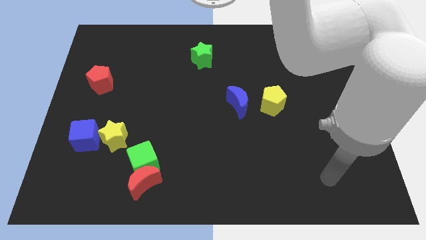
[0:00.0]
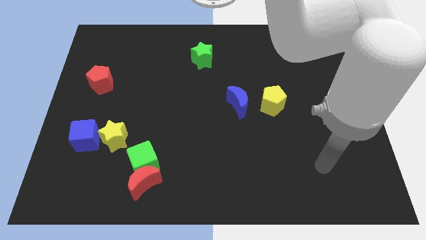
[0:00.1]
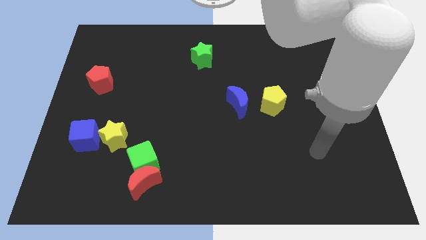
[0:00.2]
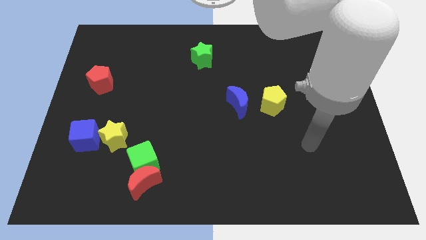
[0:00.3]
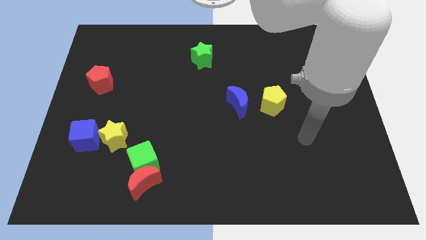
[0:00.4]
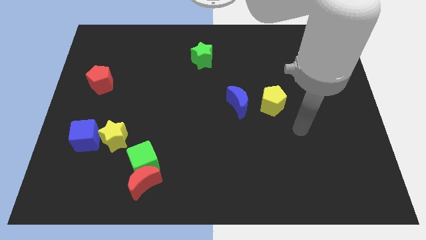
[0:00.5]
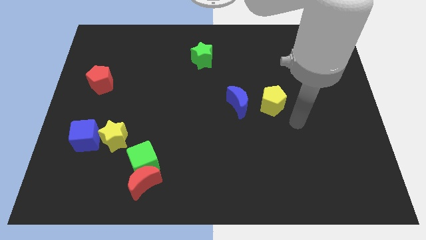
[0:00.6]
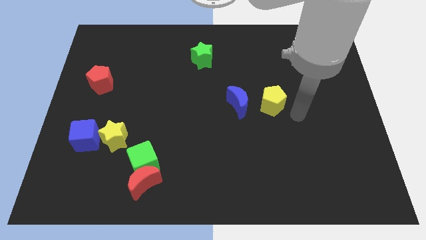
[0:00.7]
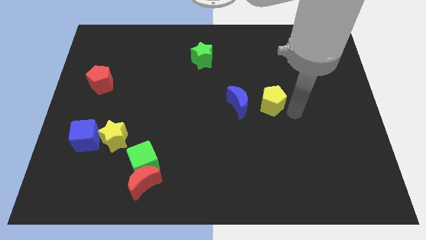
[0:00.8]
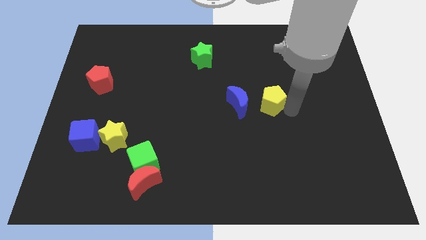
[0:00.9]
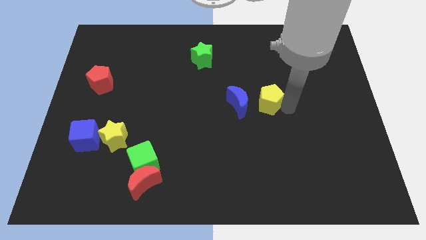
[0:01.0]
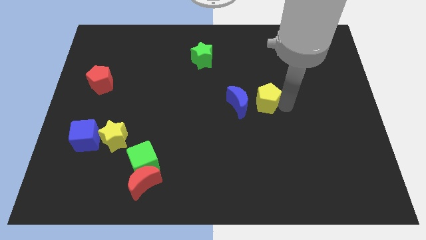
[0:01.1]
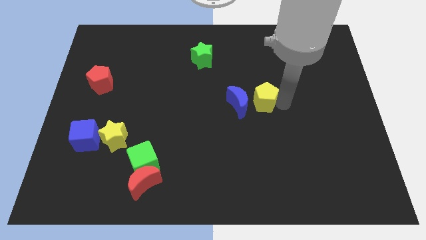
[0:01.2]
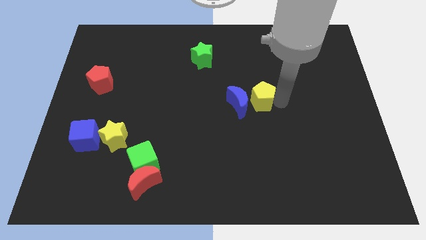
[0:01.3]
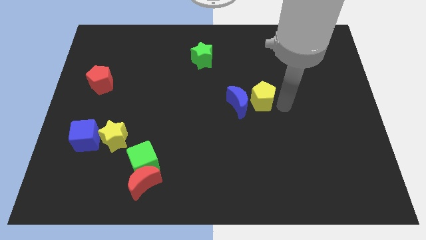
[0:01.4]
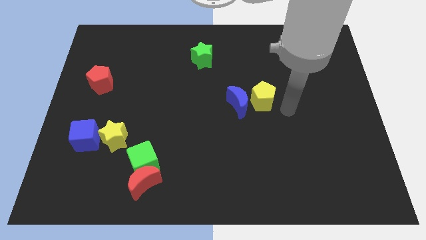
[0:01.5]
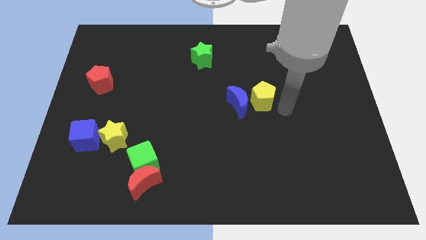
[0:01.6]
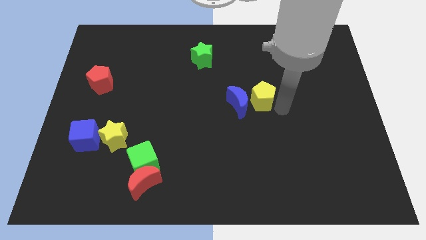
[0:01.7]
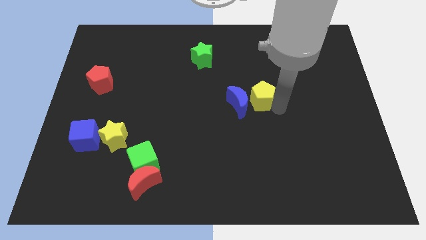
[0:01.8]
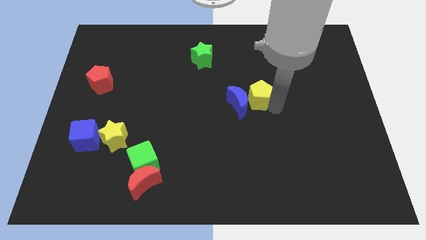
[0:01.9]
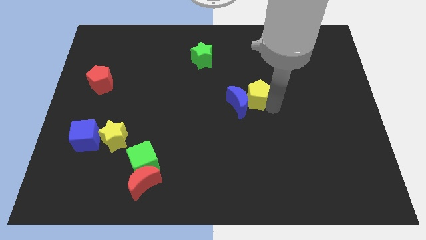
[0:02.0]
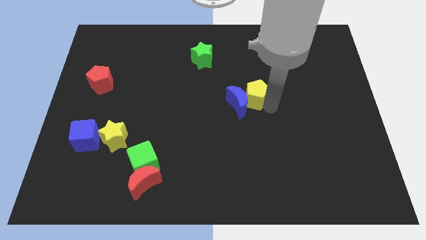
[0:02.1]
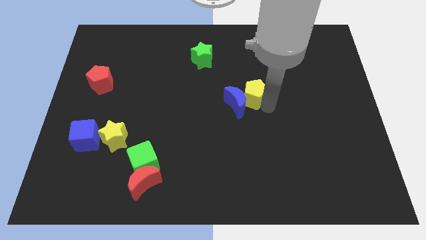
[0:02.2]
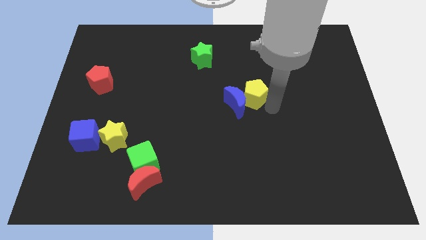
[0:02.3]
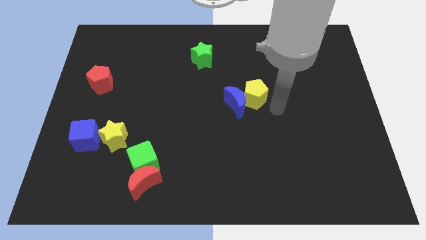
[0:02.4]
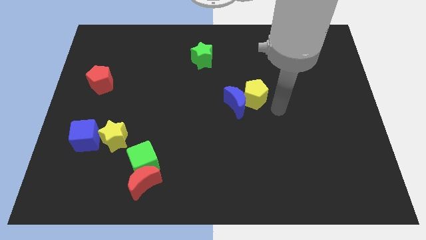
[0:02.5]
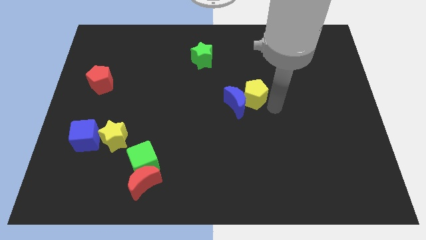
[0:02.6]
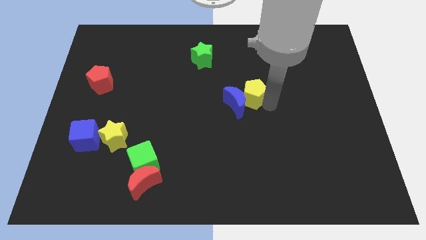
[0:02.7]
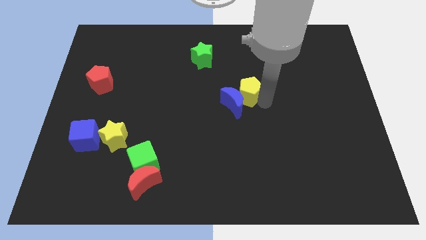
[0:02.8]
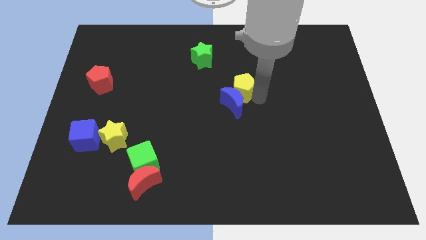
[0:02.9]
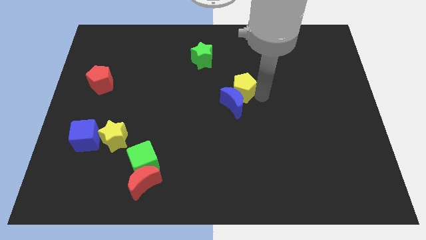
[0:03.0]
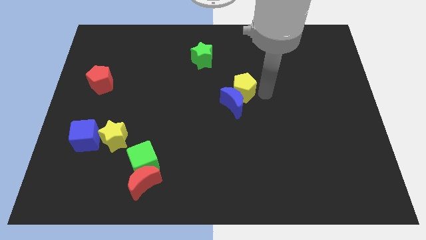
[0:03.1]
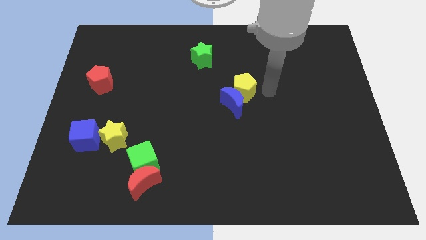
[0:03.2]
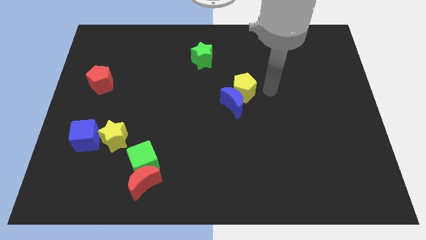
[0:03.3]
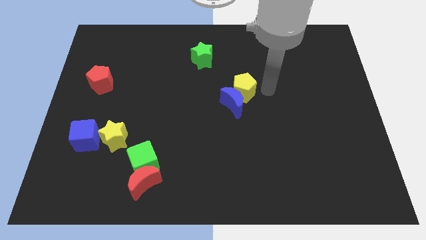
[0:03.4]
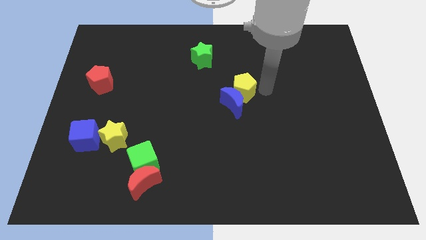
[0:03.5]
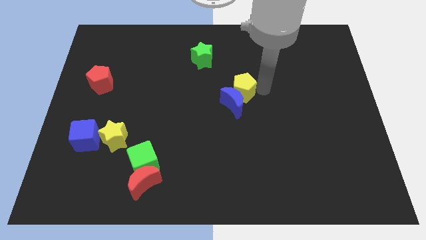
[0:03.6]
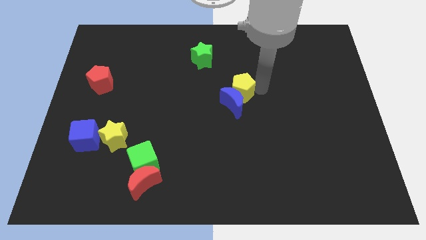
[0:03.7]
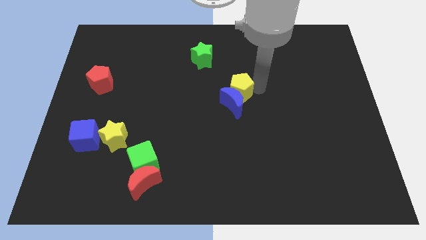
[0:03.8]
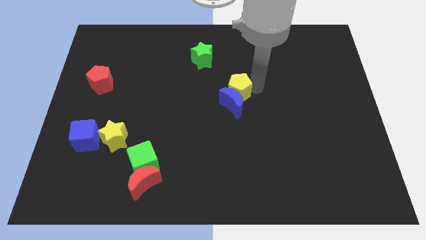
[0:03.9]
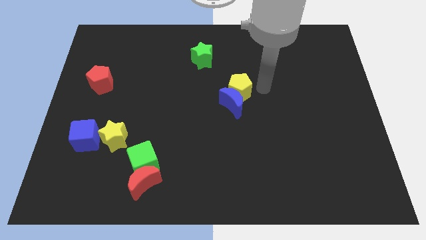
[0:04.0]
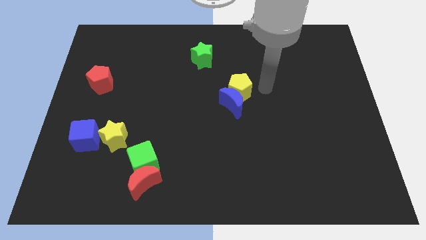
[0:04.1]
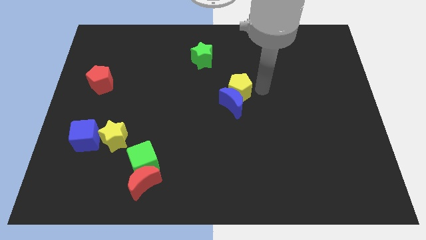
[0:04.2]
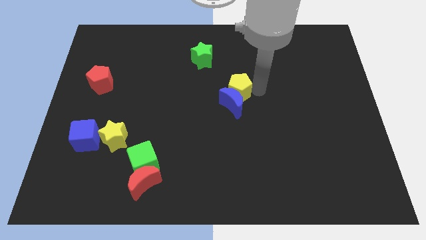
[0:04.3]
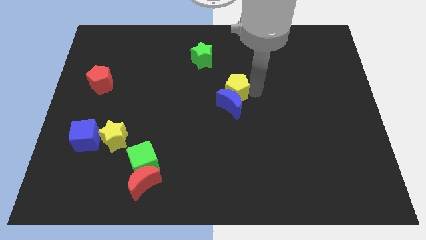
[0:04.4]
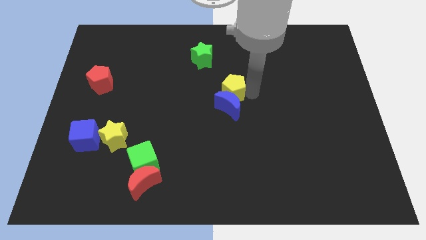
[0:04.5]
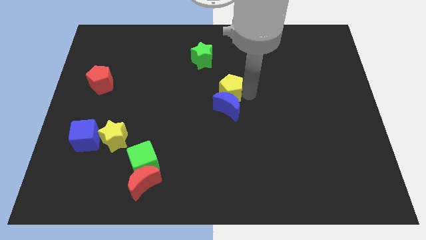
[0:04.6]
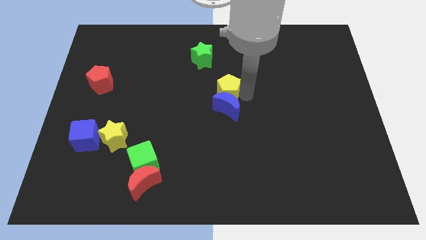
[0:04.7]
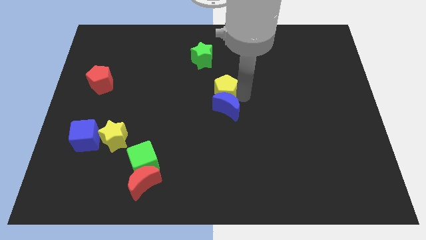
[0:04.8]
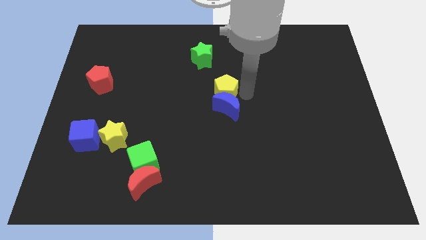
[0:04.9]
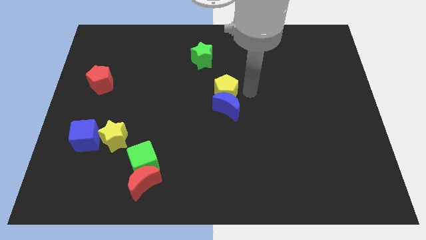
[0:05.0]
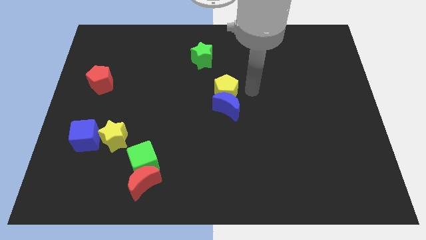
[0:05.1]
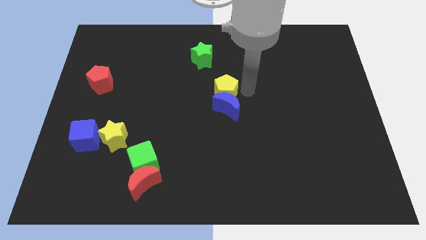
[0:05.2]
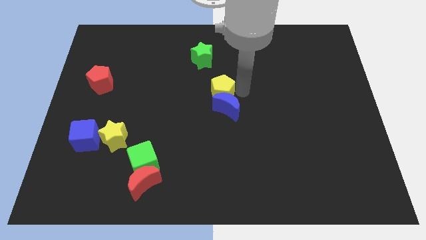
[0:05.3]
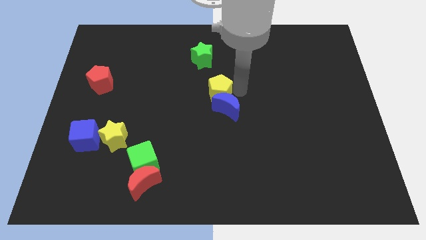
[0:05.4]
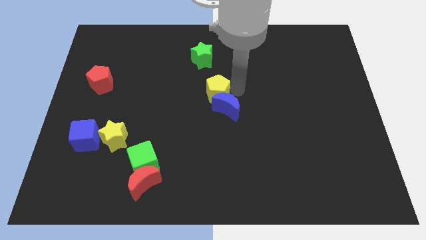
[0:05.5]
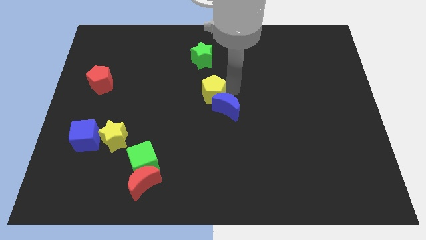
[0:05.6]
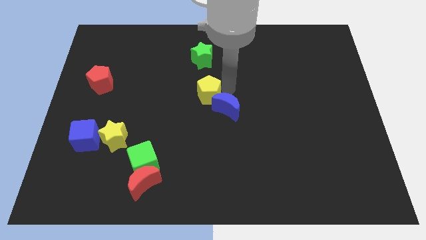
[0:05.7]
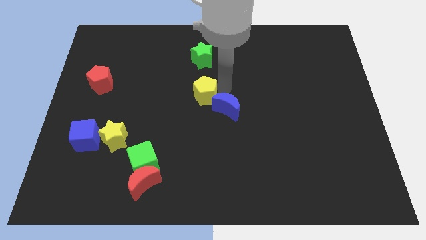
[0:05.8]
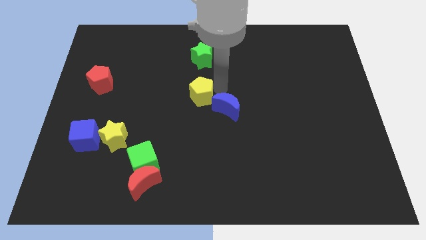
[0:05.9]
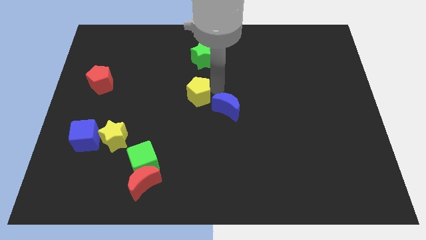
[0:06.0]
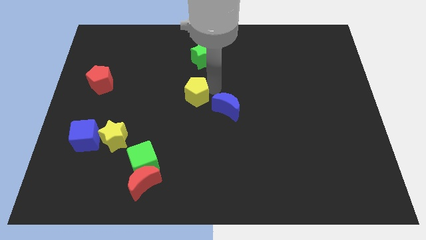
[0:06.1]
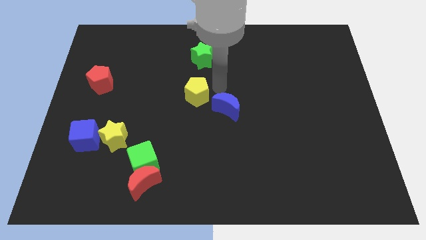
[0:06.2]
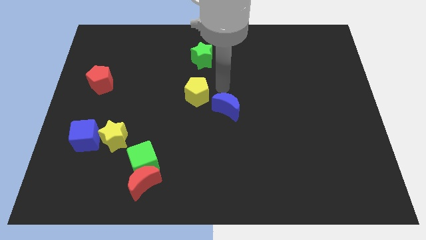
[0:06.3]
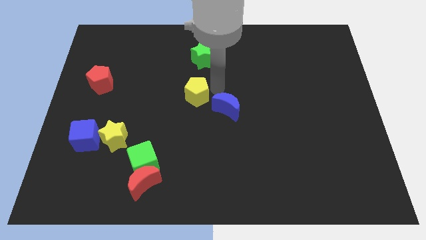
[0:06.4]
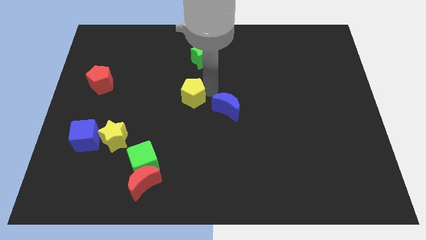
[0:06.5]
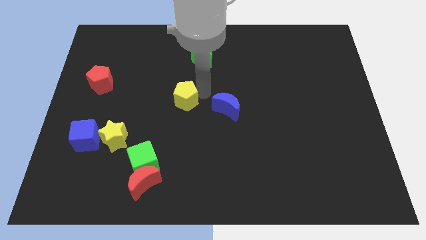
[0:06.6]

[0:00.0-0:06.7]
slide the yellow pentagon left

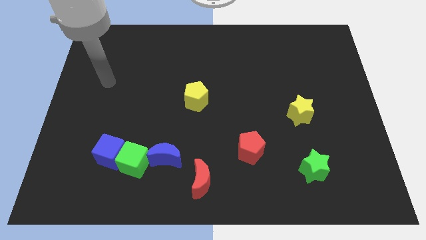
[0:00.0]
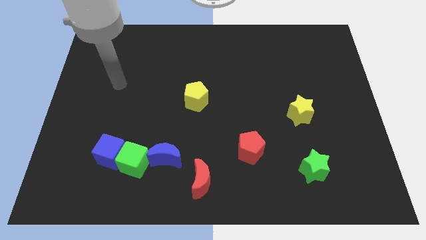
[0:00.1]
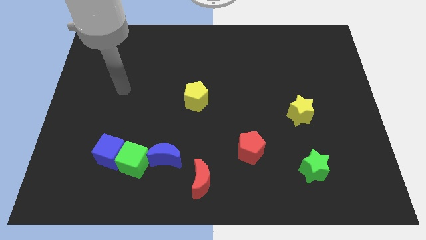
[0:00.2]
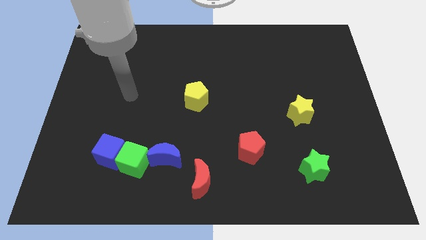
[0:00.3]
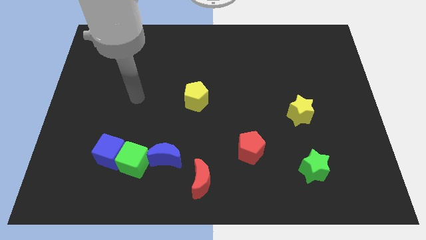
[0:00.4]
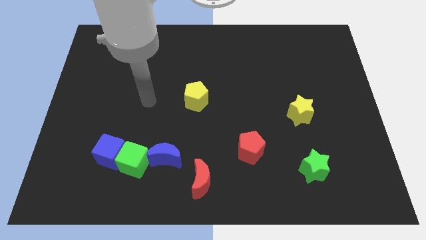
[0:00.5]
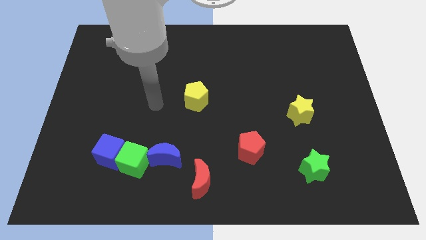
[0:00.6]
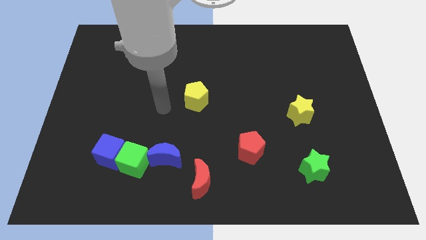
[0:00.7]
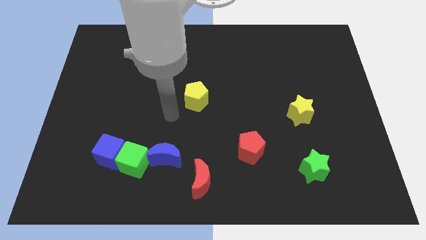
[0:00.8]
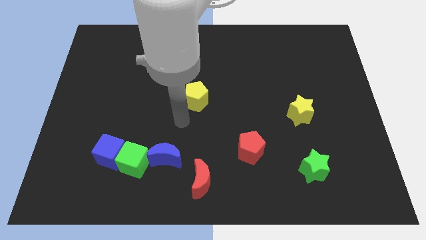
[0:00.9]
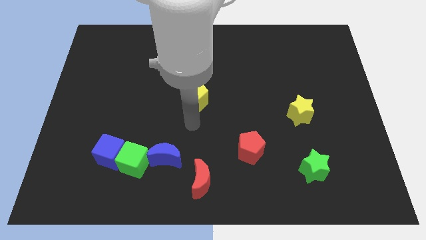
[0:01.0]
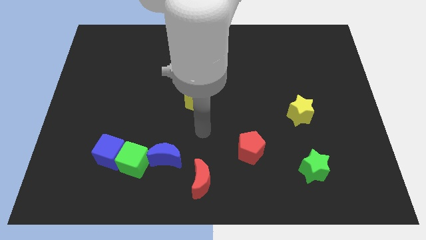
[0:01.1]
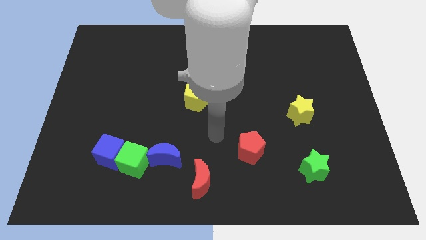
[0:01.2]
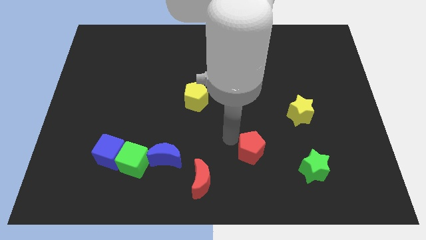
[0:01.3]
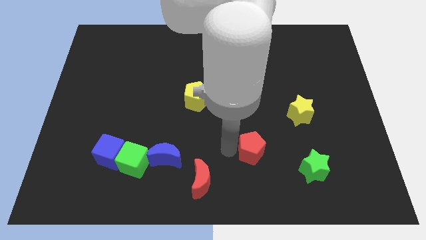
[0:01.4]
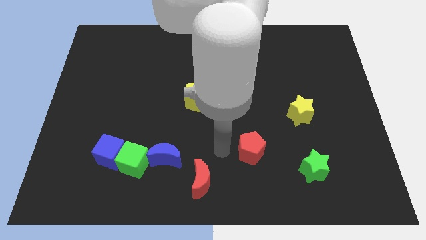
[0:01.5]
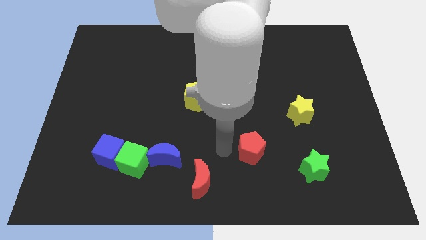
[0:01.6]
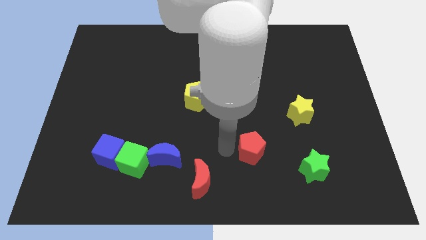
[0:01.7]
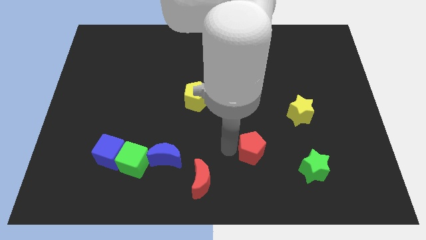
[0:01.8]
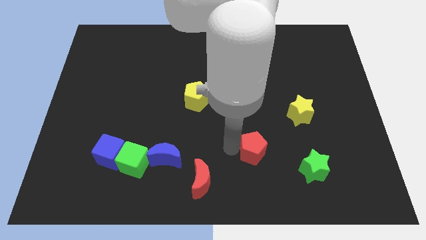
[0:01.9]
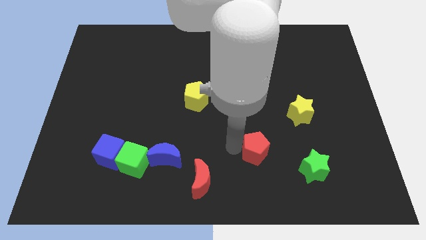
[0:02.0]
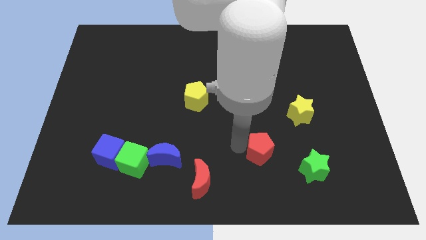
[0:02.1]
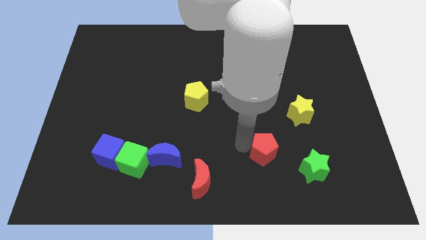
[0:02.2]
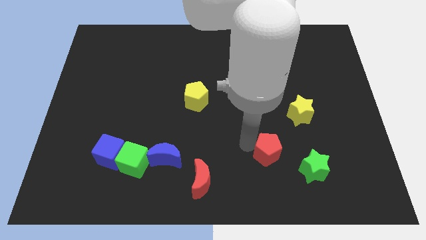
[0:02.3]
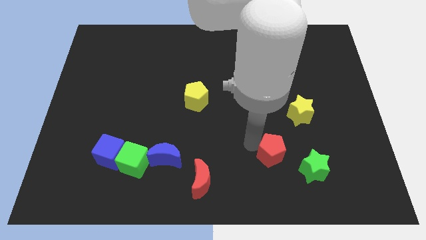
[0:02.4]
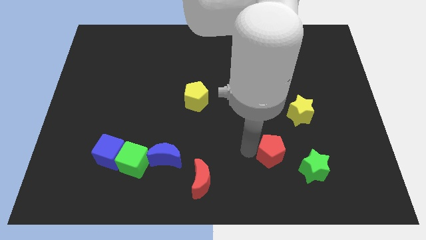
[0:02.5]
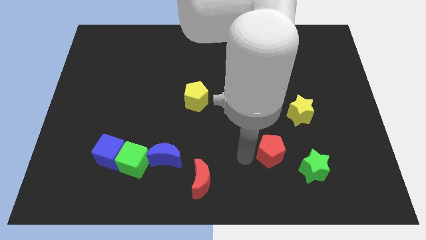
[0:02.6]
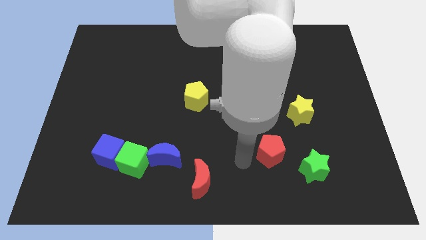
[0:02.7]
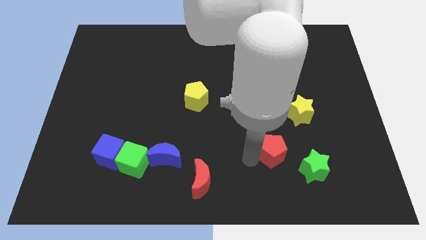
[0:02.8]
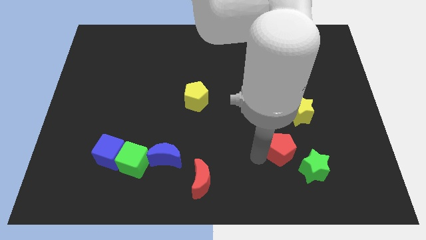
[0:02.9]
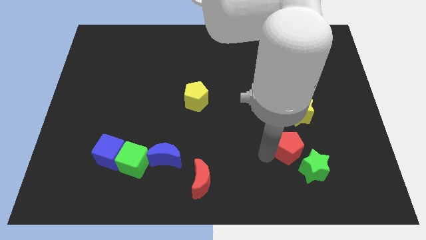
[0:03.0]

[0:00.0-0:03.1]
slightly slide the red pentagon right
